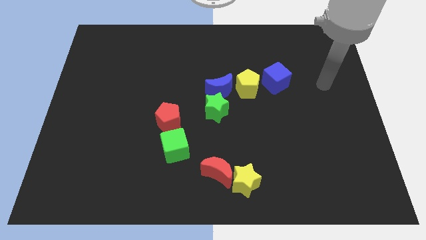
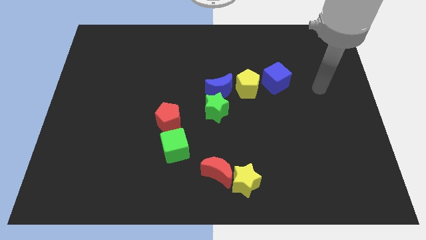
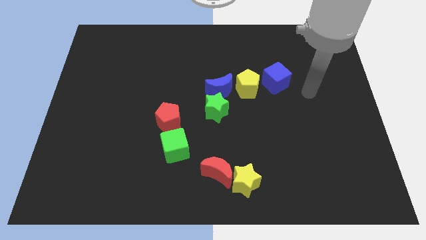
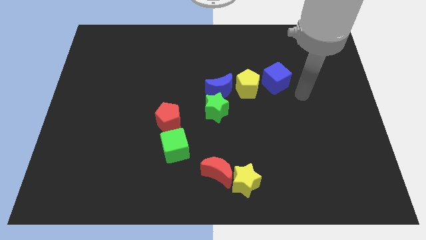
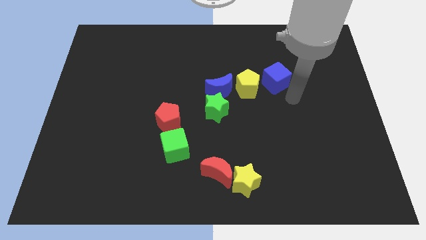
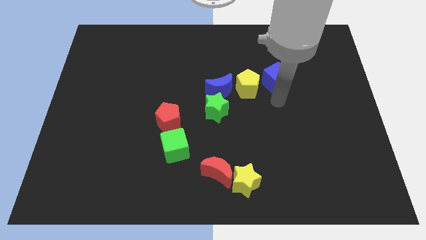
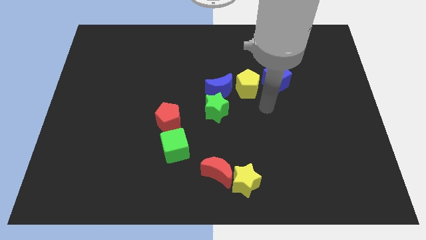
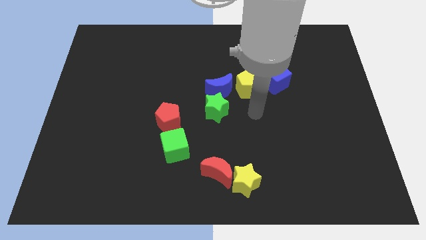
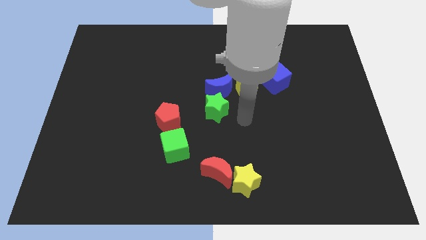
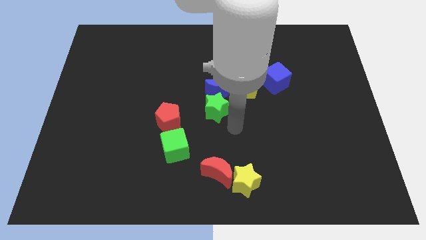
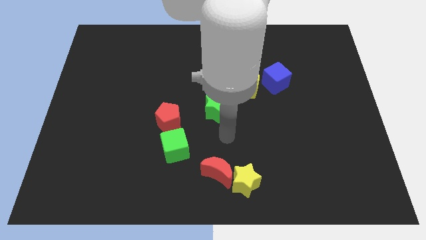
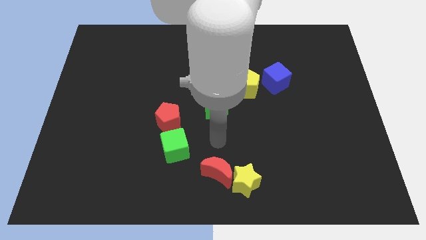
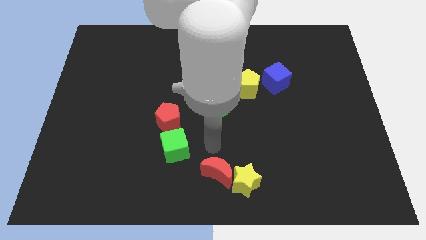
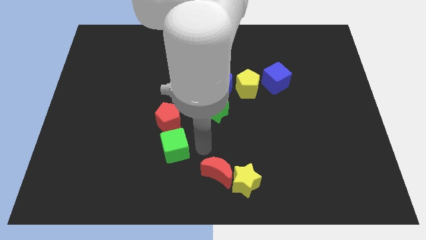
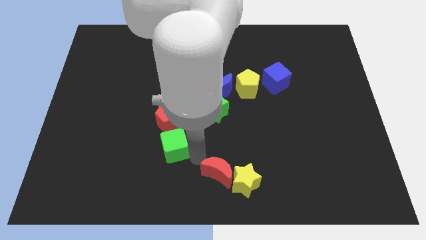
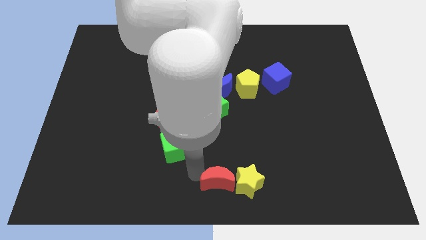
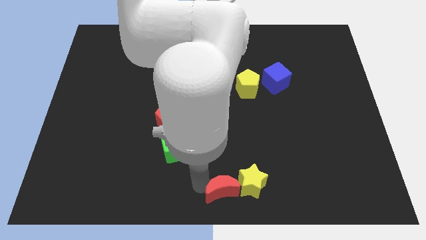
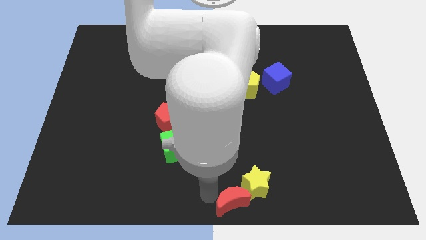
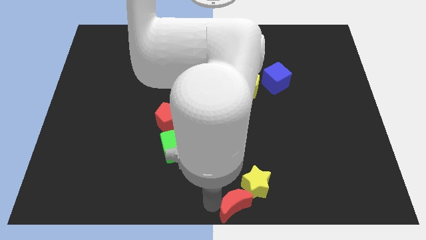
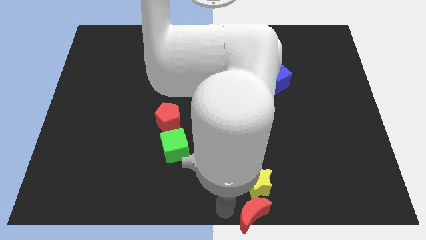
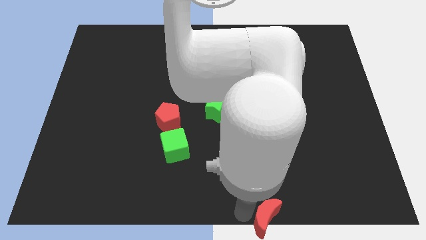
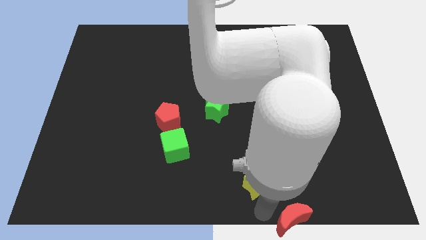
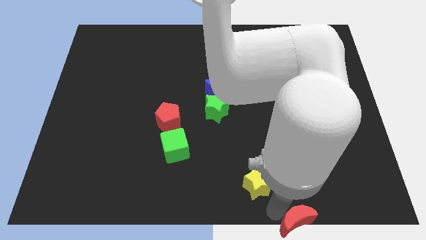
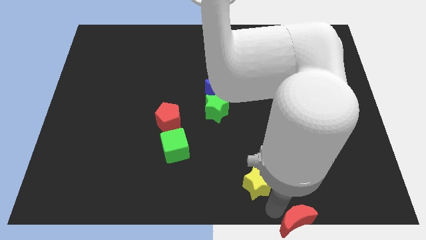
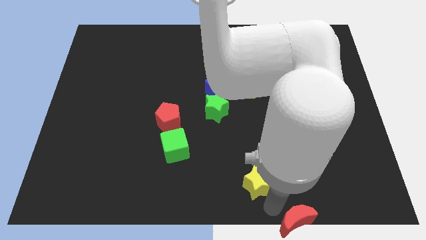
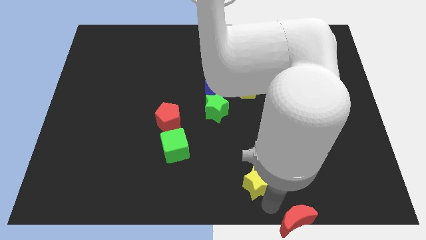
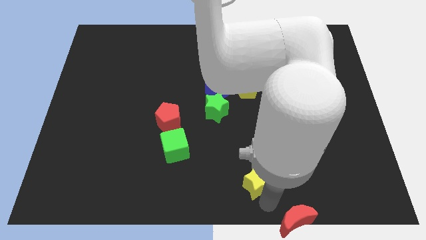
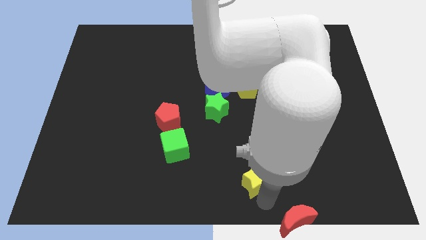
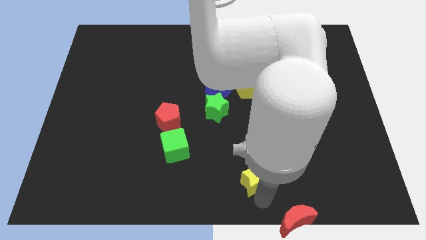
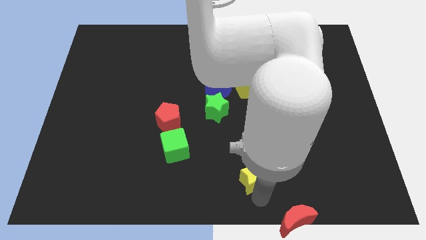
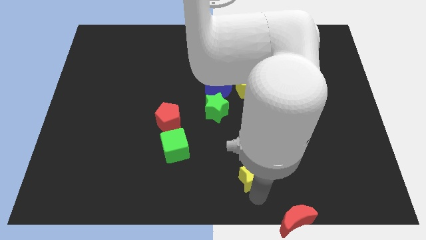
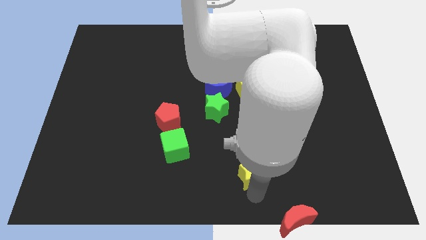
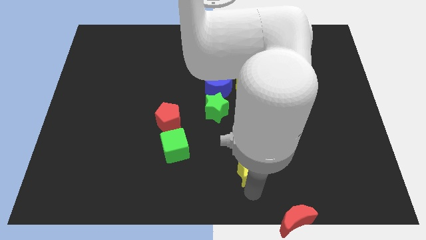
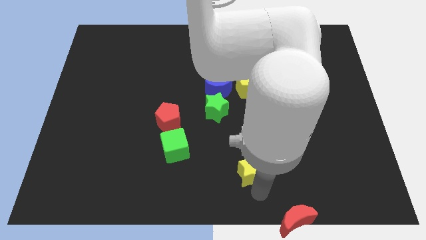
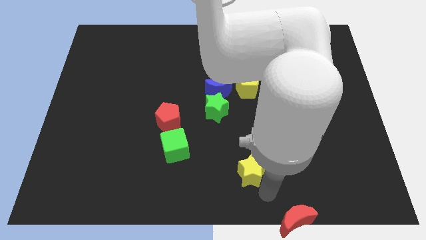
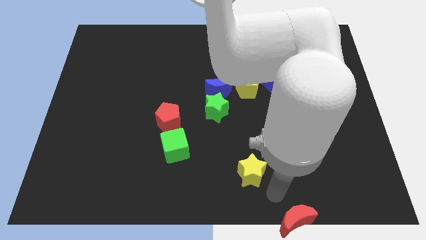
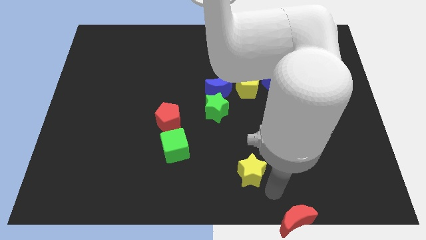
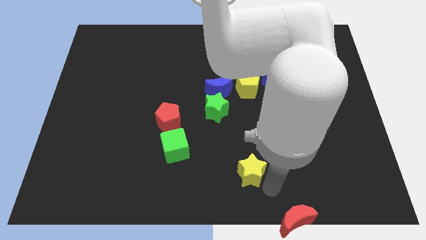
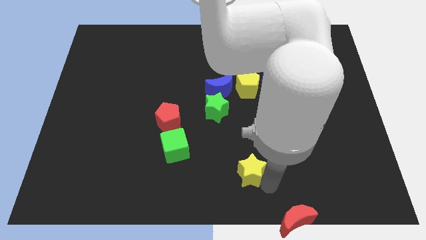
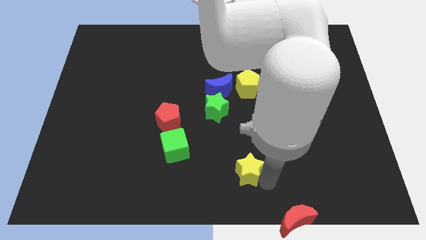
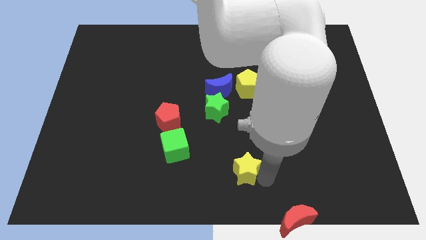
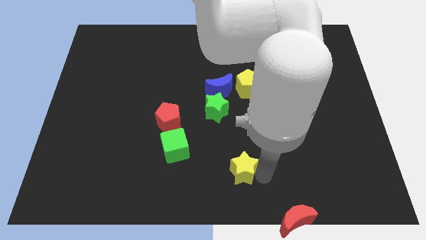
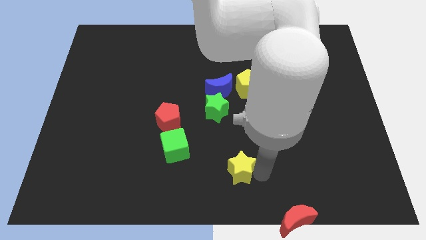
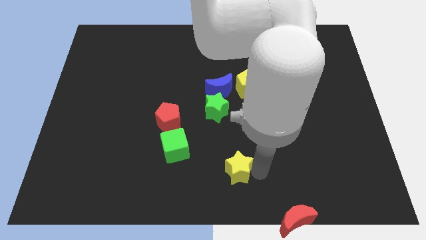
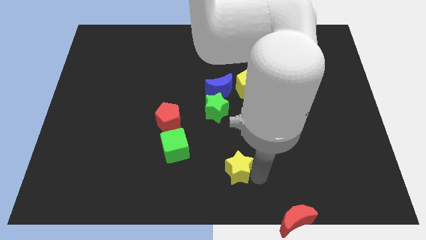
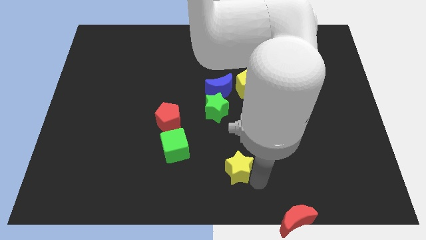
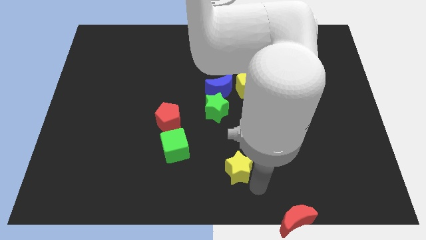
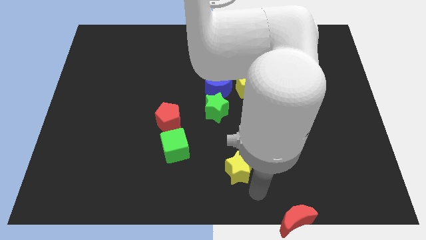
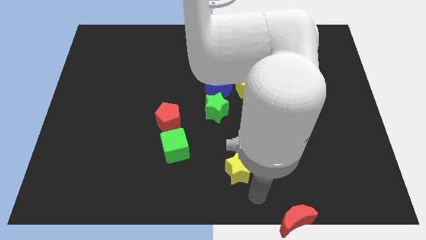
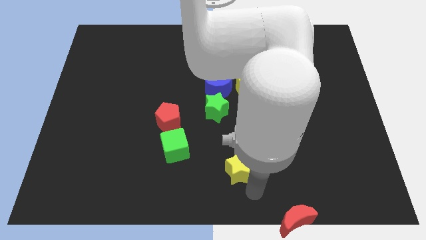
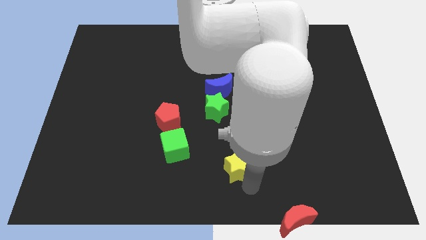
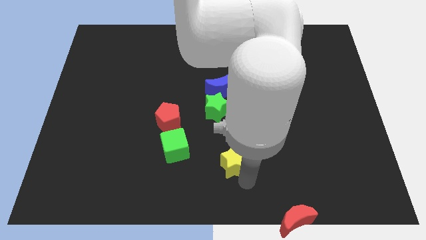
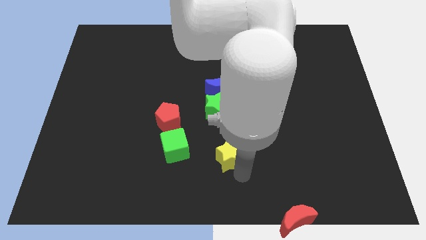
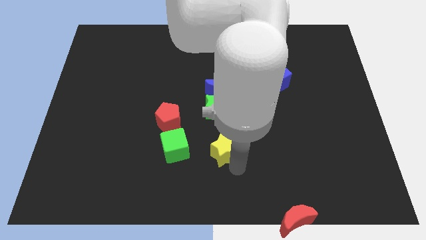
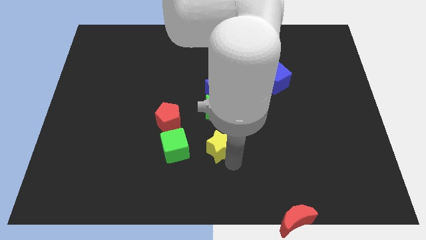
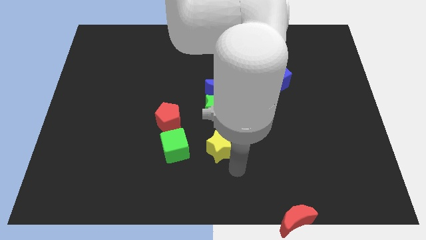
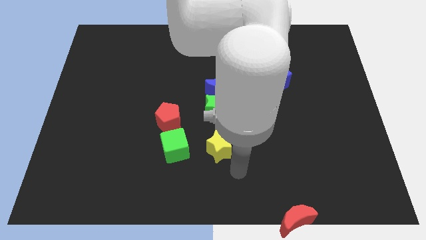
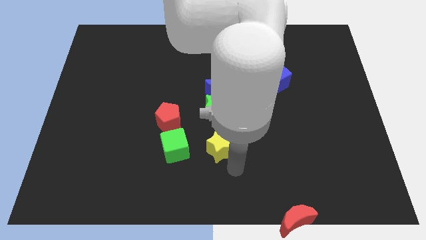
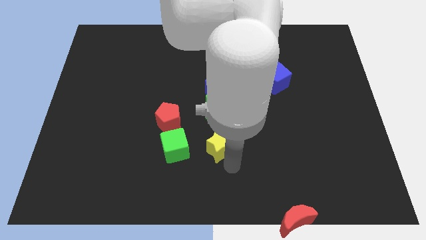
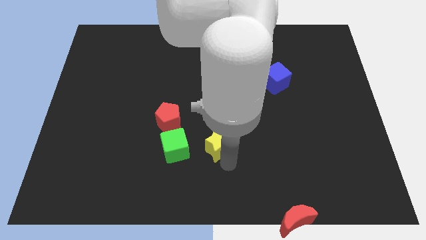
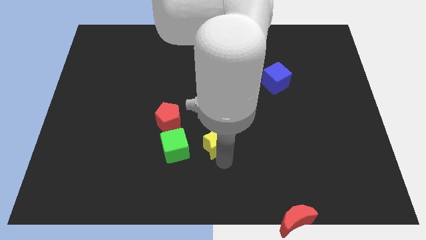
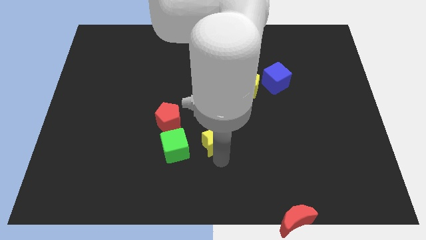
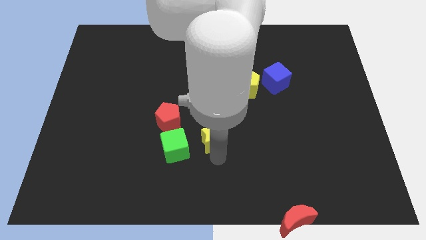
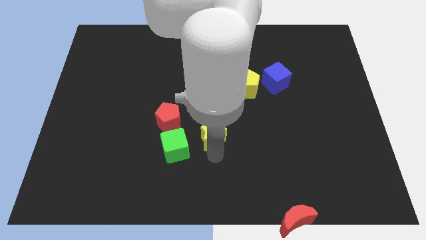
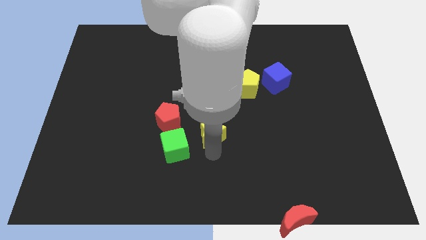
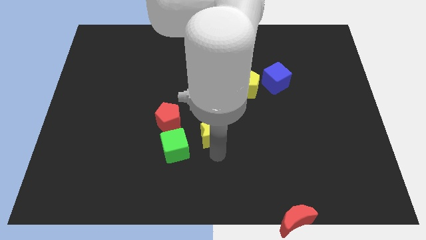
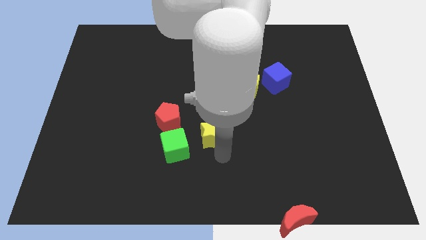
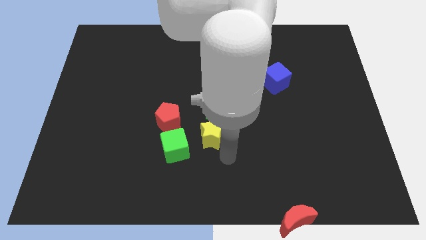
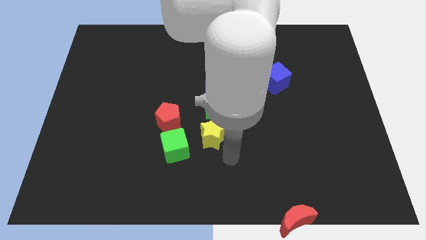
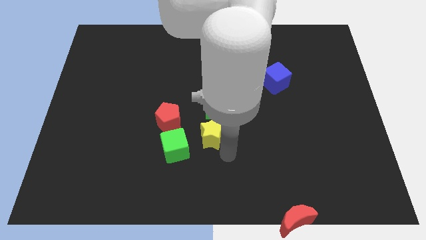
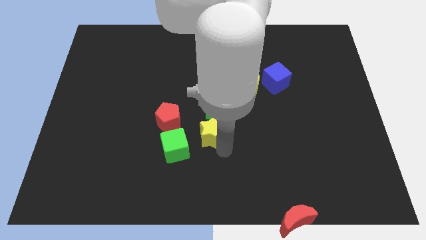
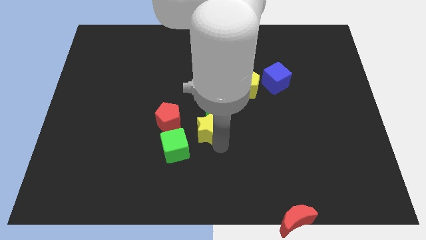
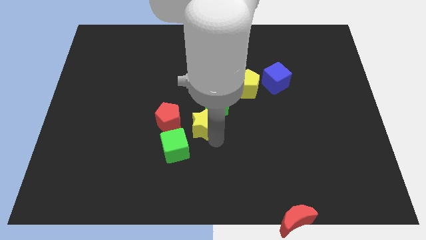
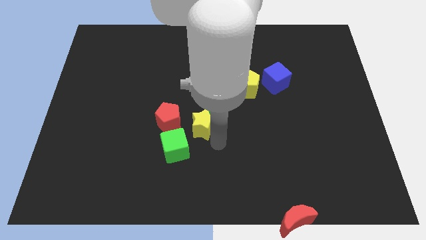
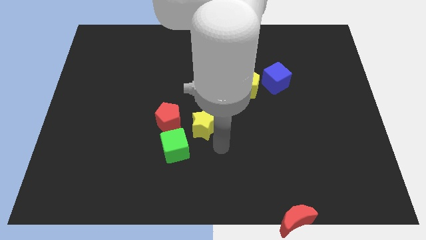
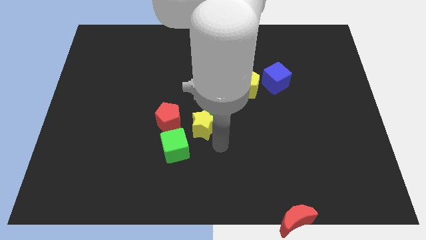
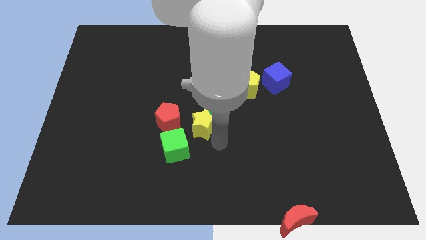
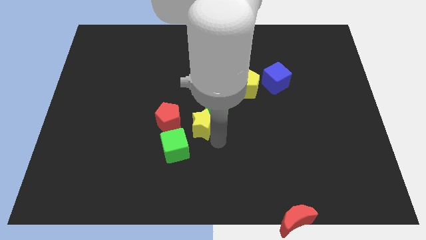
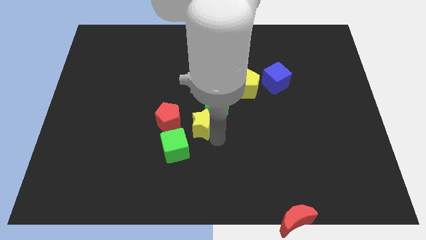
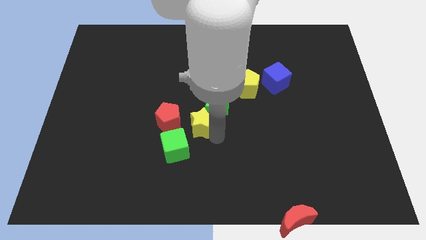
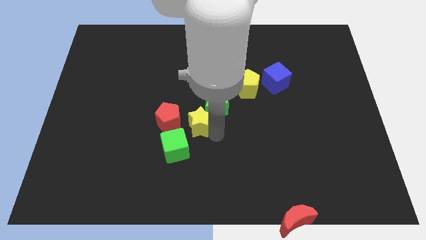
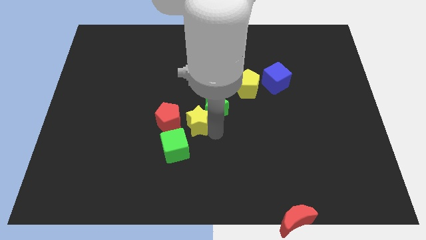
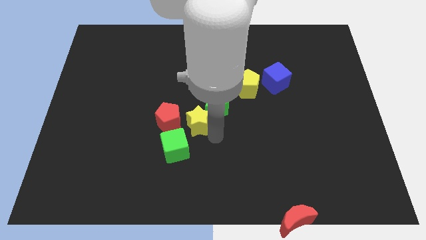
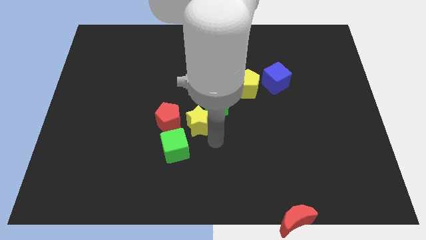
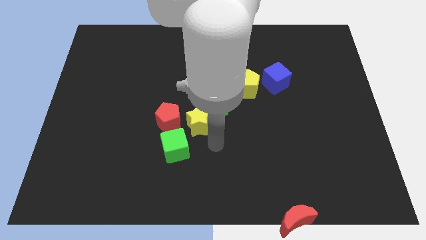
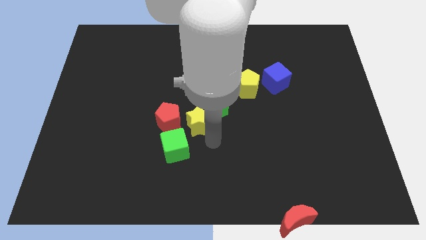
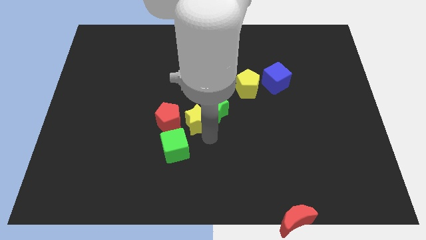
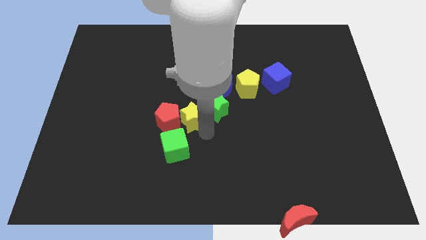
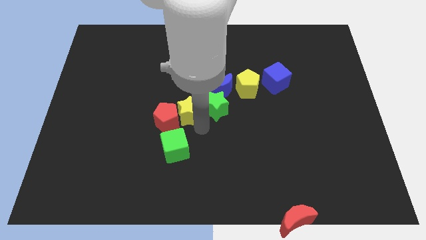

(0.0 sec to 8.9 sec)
push the yellow star up and then left
